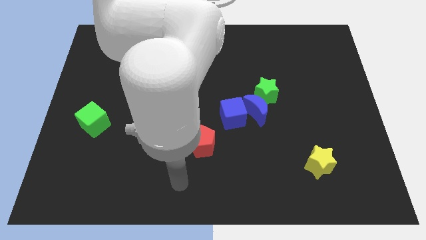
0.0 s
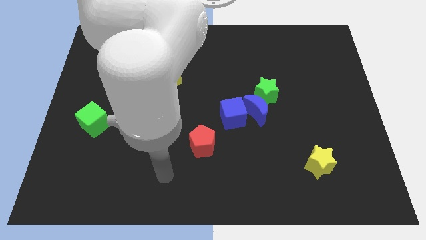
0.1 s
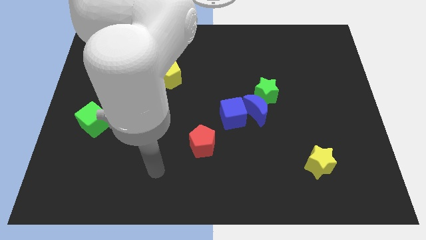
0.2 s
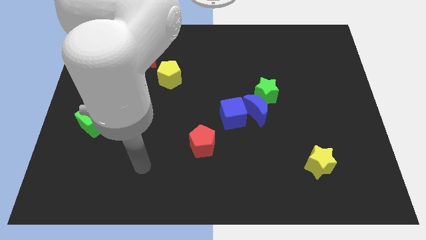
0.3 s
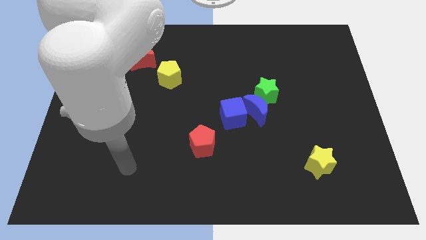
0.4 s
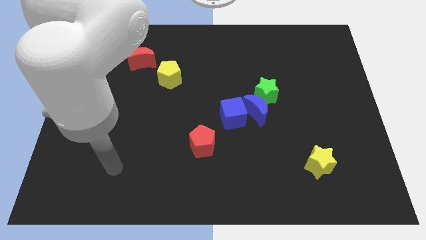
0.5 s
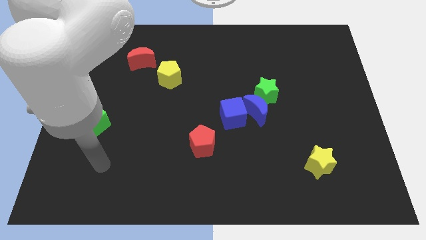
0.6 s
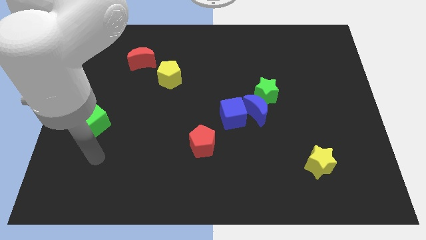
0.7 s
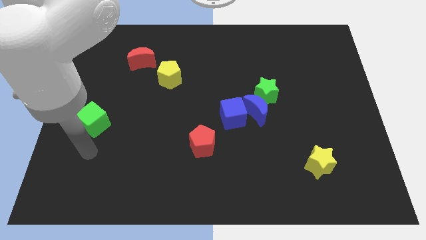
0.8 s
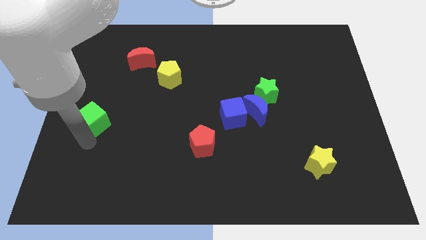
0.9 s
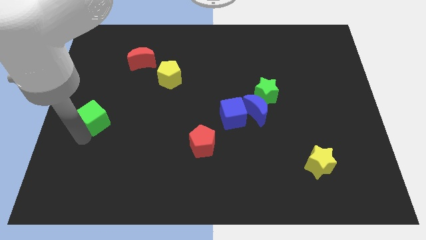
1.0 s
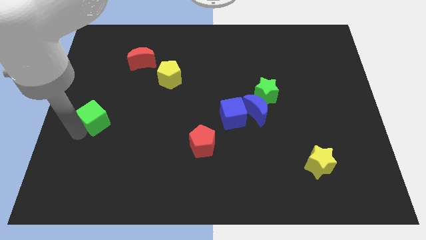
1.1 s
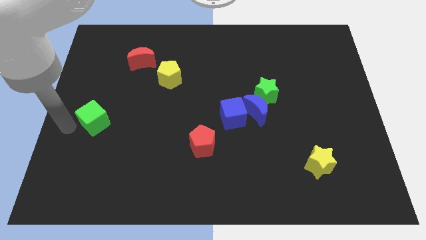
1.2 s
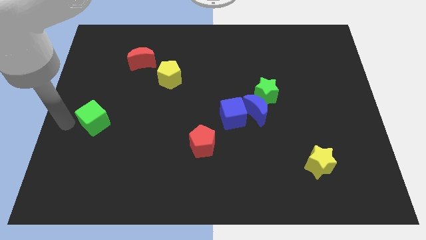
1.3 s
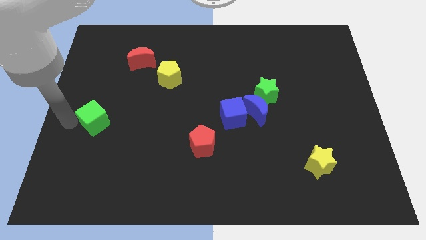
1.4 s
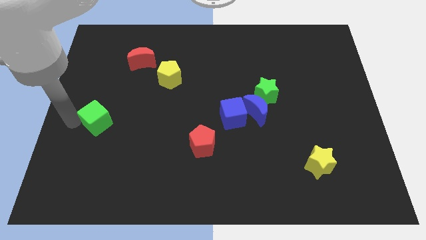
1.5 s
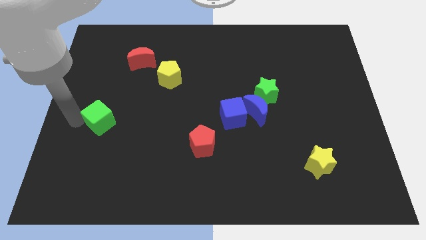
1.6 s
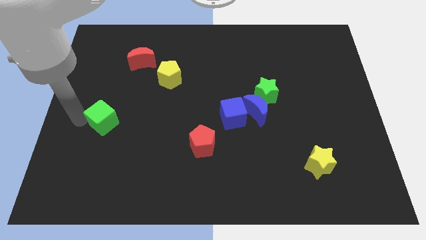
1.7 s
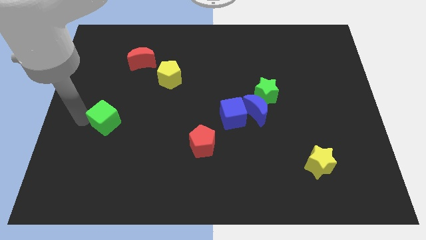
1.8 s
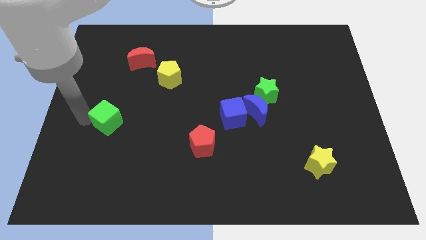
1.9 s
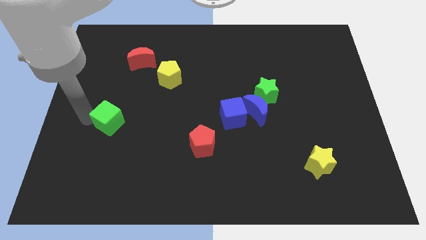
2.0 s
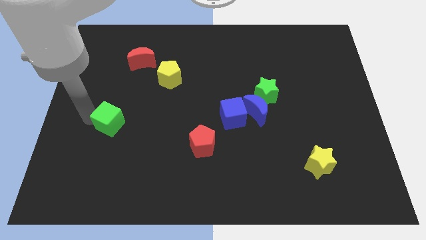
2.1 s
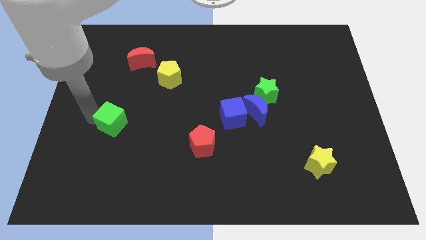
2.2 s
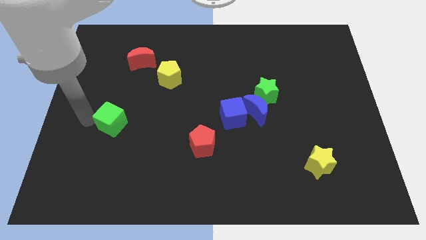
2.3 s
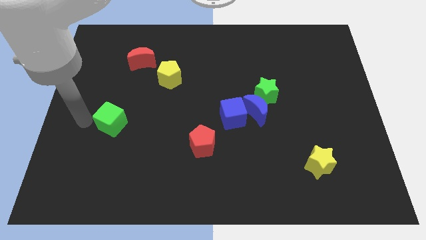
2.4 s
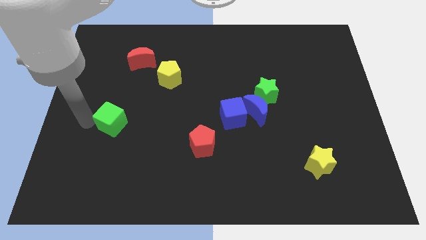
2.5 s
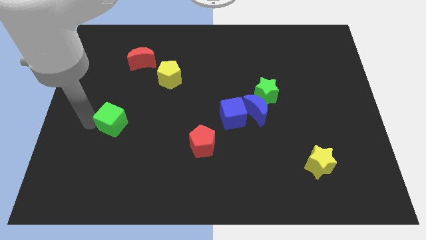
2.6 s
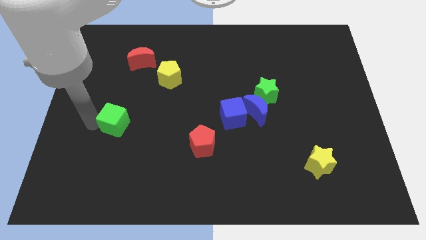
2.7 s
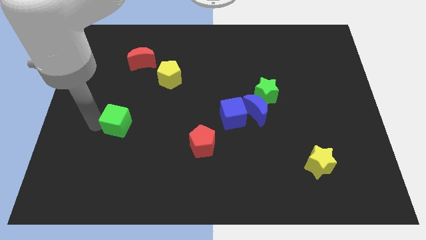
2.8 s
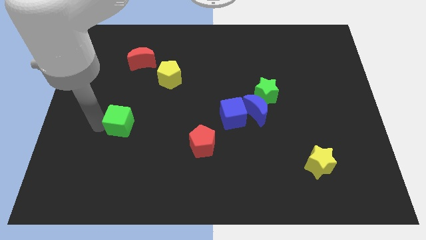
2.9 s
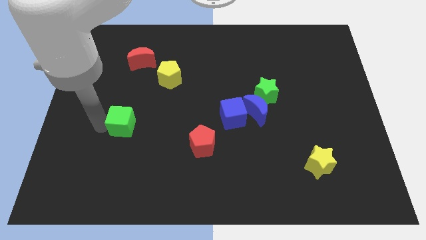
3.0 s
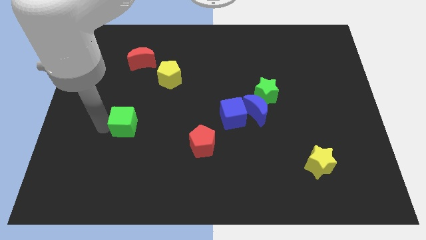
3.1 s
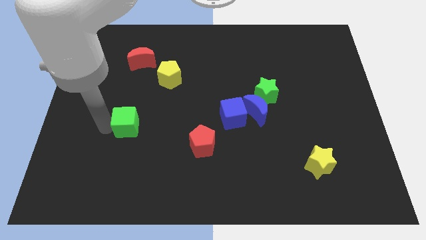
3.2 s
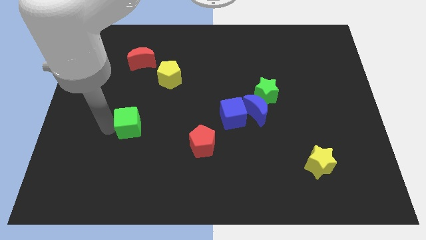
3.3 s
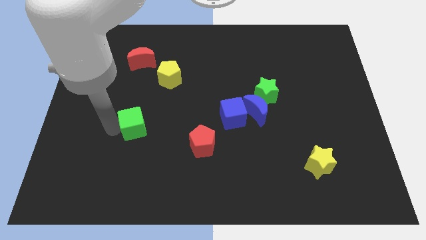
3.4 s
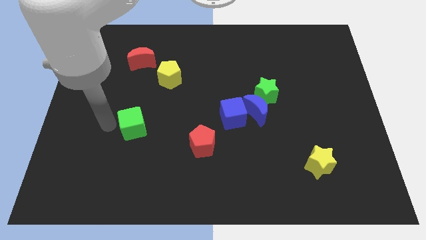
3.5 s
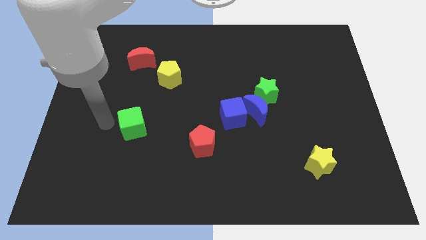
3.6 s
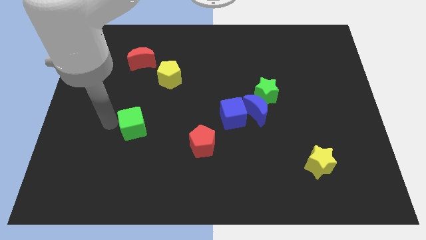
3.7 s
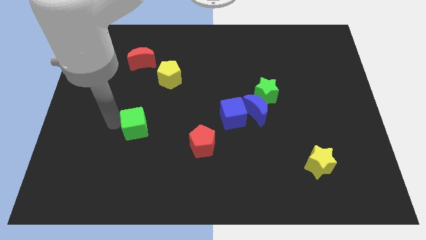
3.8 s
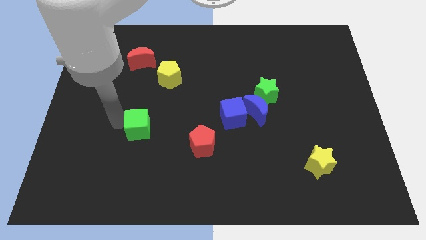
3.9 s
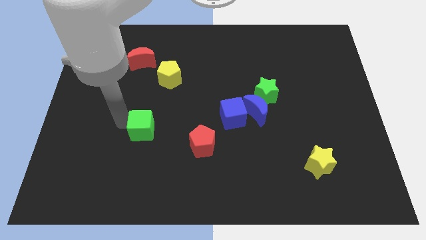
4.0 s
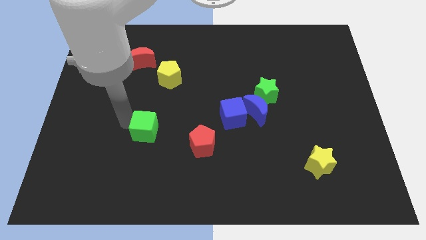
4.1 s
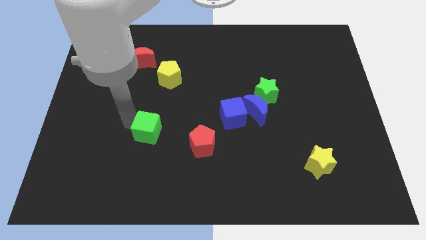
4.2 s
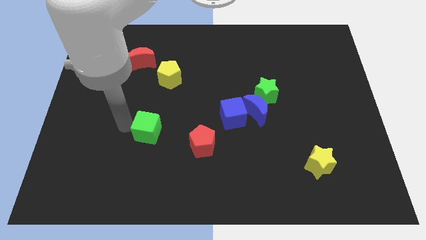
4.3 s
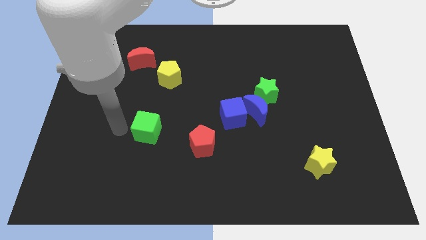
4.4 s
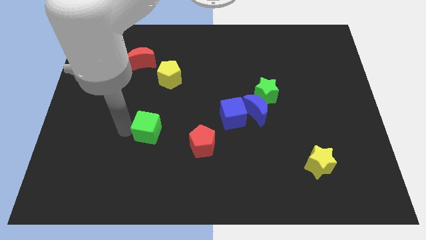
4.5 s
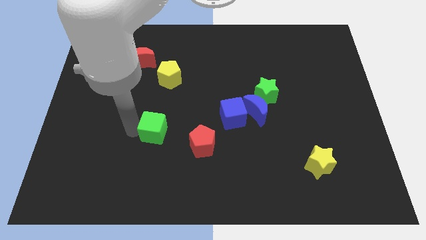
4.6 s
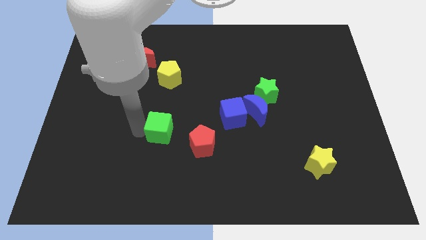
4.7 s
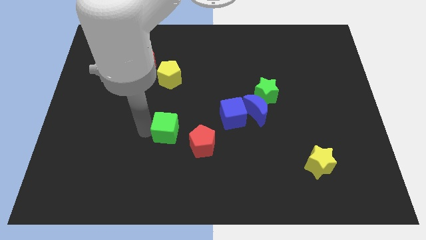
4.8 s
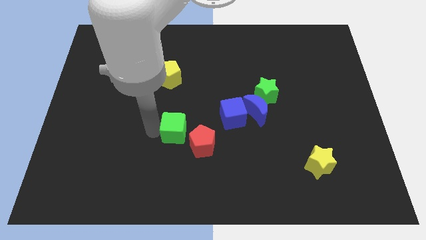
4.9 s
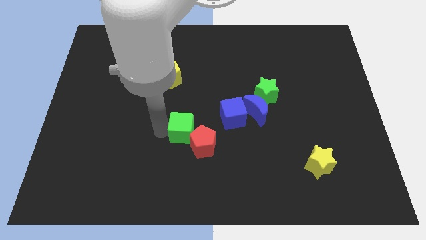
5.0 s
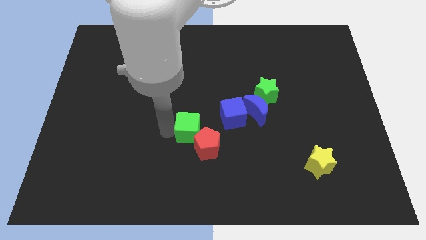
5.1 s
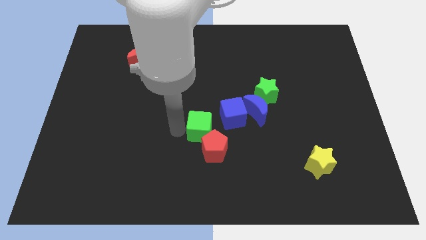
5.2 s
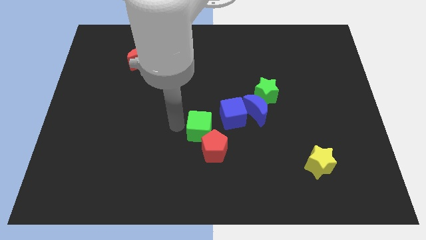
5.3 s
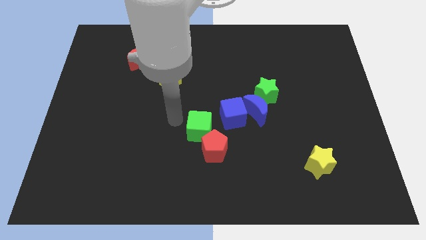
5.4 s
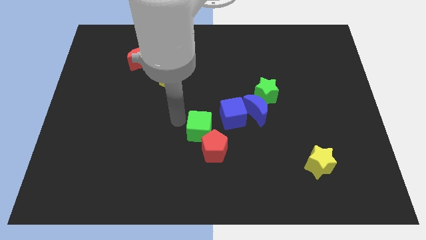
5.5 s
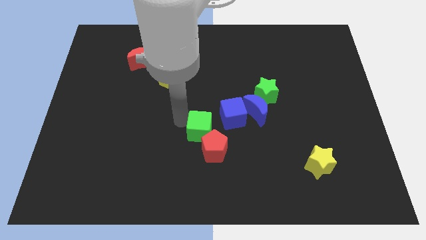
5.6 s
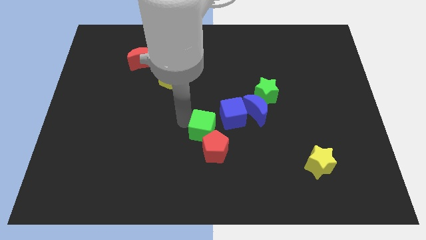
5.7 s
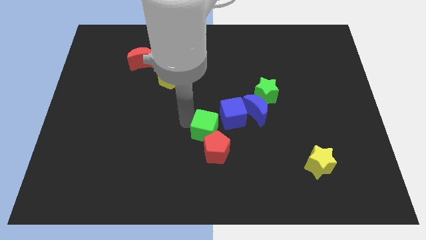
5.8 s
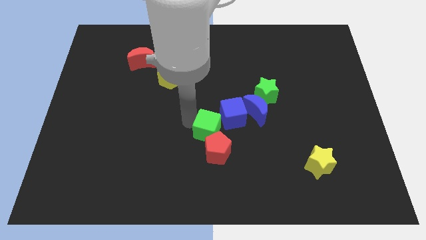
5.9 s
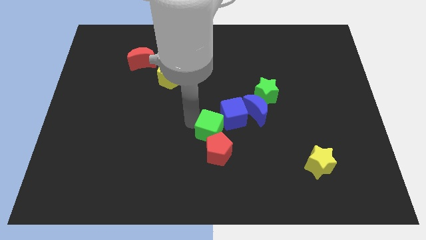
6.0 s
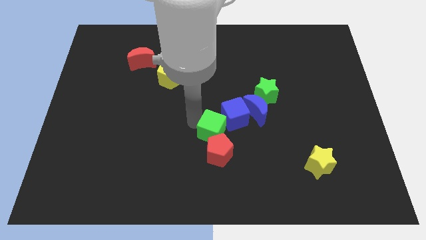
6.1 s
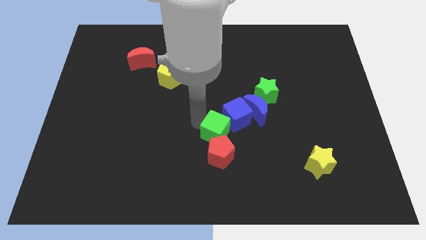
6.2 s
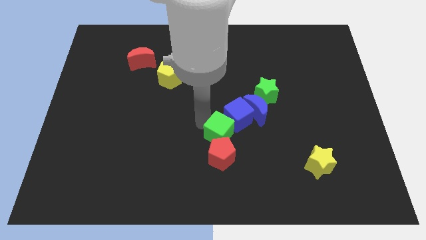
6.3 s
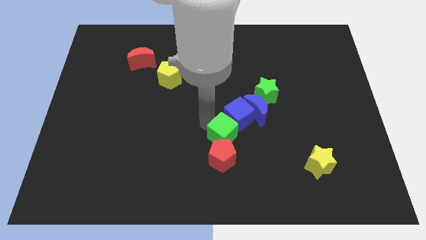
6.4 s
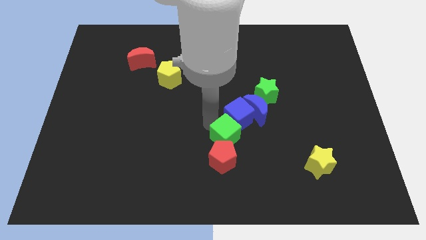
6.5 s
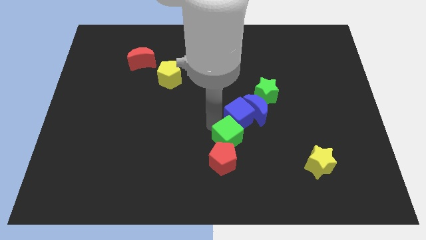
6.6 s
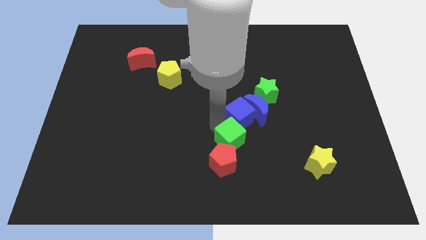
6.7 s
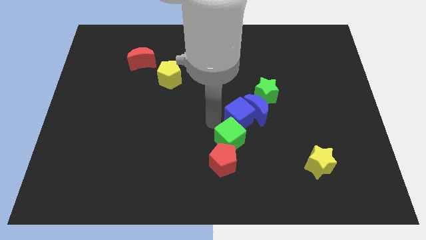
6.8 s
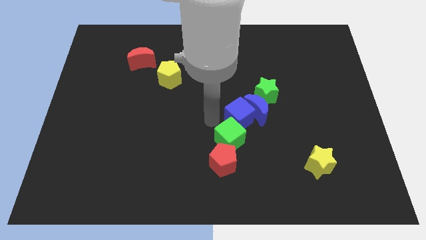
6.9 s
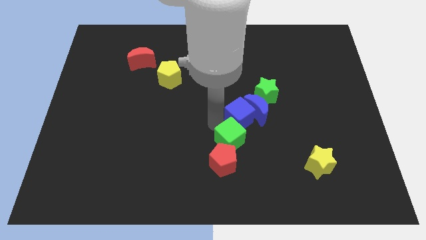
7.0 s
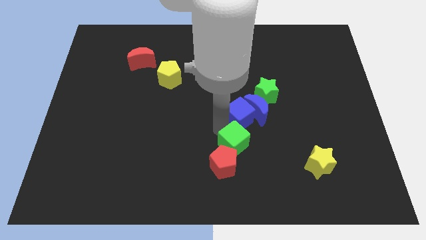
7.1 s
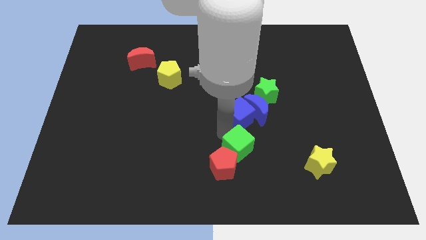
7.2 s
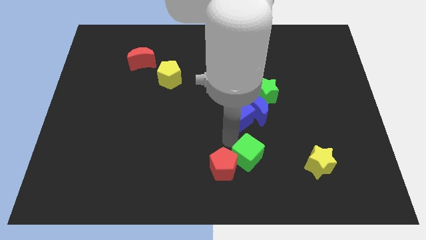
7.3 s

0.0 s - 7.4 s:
put the green cube to the left side of the yellow star

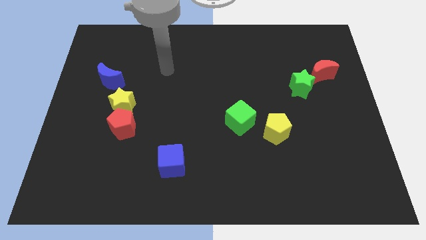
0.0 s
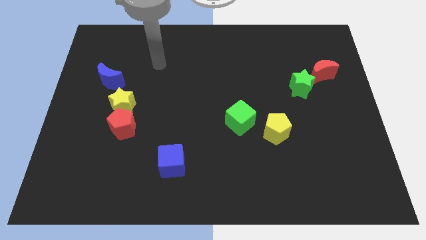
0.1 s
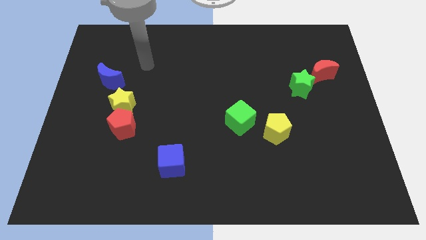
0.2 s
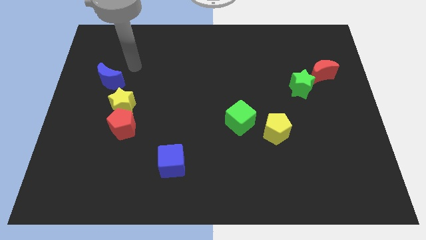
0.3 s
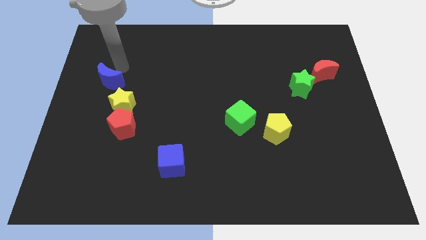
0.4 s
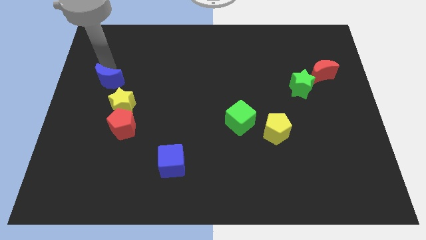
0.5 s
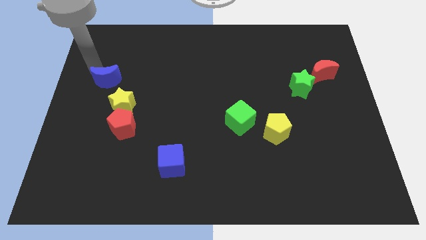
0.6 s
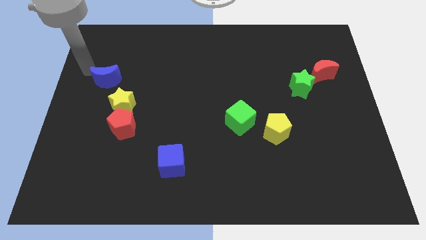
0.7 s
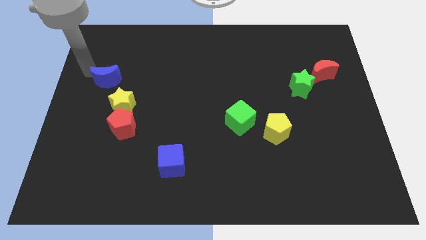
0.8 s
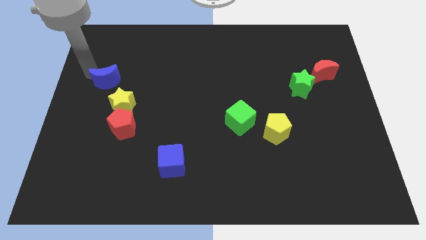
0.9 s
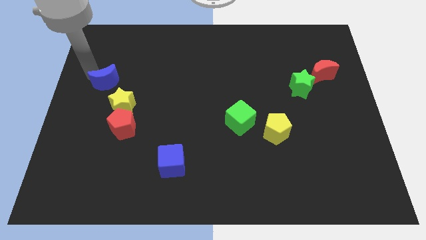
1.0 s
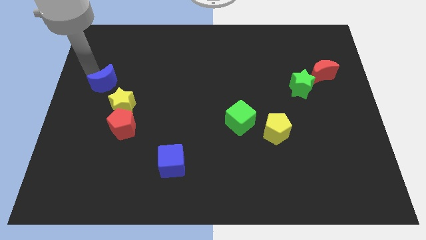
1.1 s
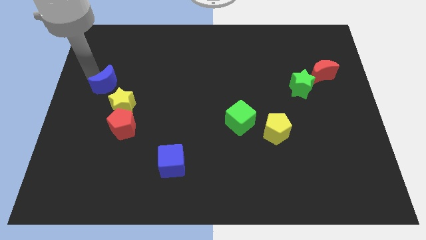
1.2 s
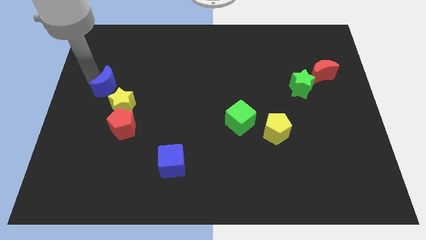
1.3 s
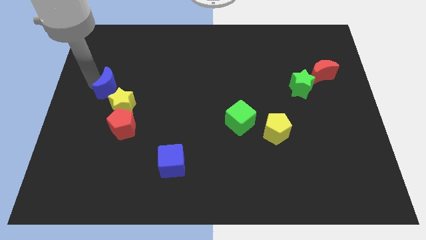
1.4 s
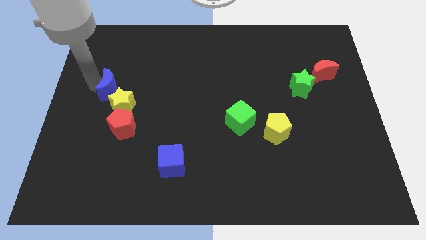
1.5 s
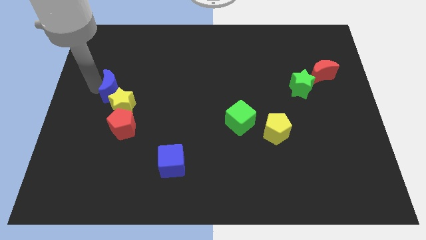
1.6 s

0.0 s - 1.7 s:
push the blue moon to the top of the red pentagon
